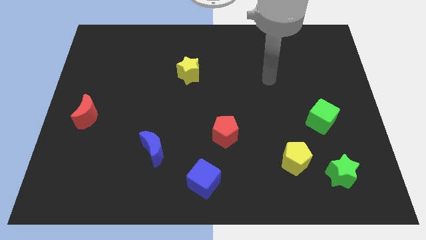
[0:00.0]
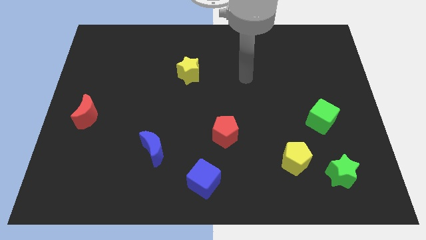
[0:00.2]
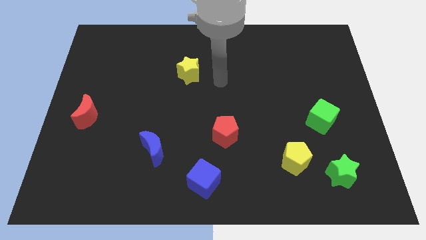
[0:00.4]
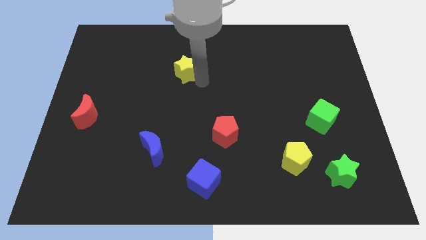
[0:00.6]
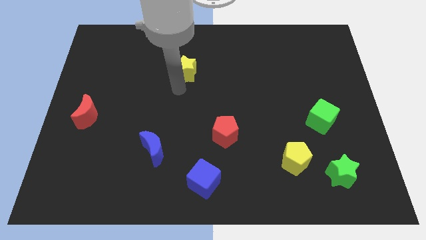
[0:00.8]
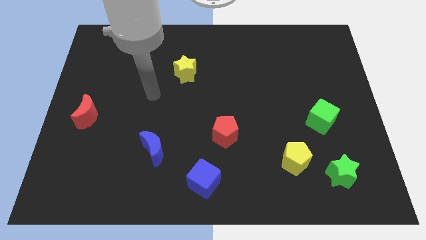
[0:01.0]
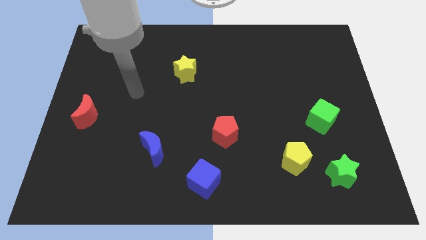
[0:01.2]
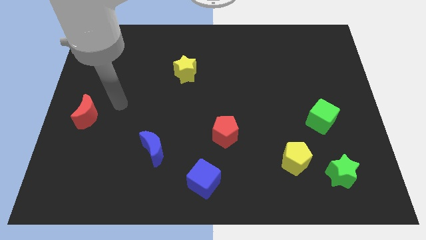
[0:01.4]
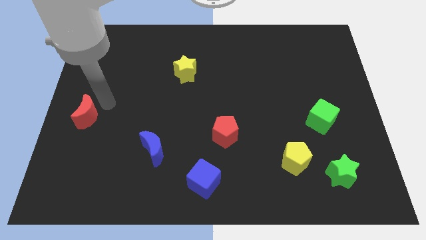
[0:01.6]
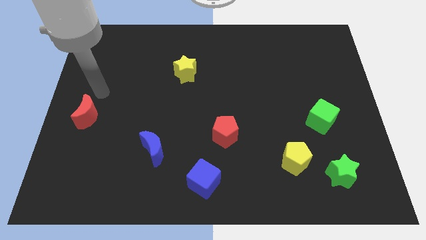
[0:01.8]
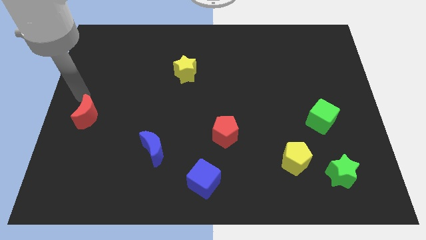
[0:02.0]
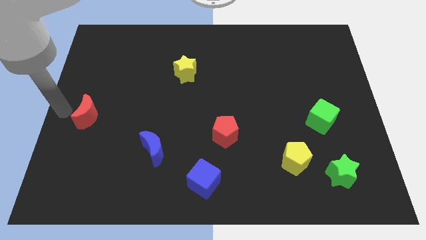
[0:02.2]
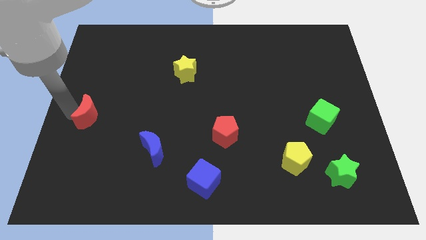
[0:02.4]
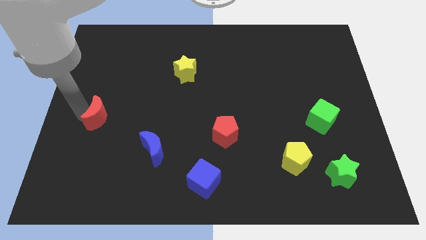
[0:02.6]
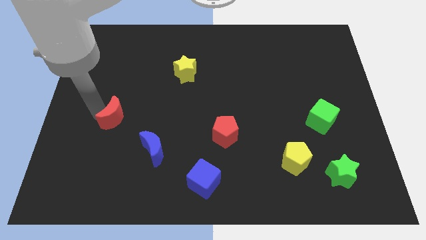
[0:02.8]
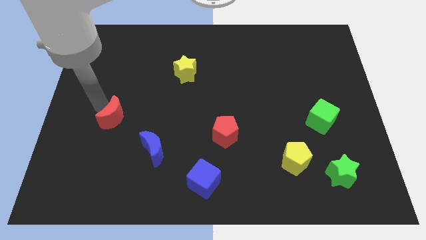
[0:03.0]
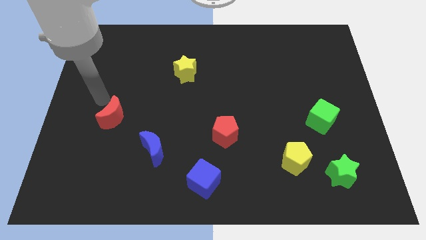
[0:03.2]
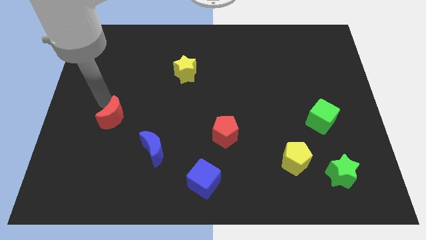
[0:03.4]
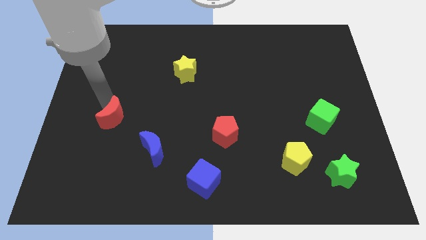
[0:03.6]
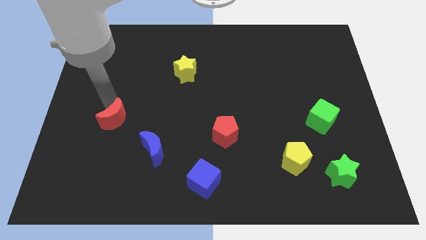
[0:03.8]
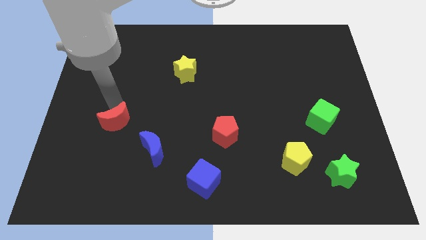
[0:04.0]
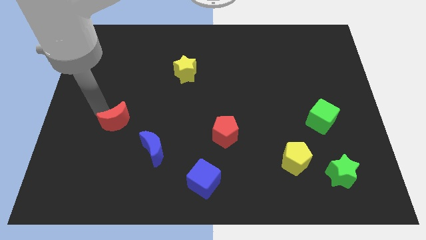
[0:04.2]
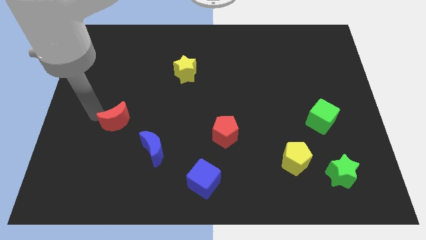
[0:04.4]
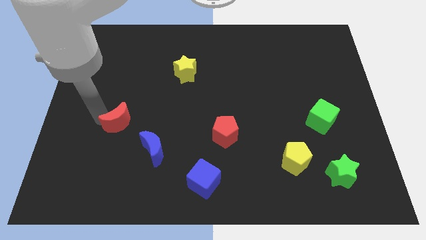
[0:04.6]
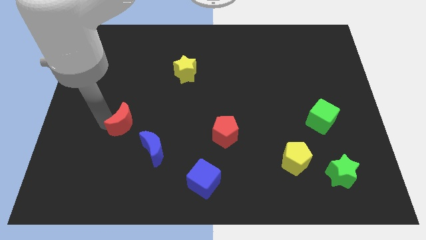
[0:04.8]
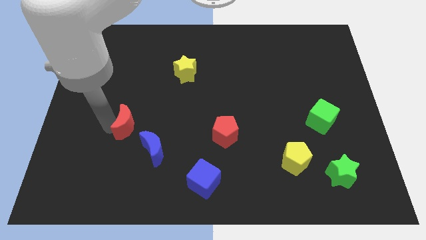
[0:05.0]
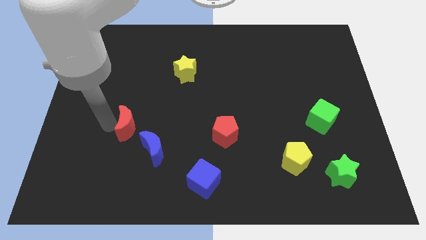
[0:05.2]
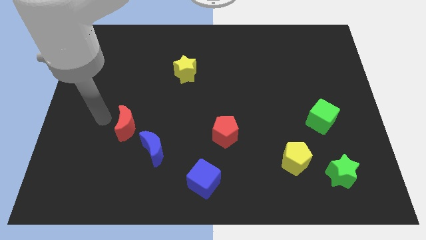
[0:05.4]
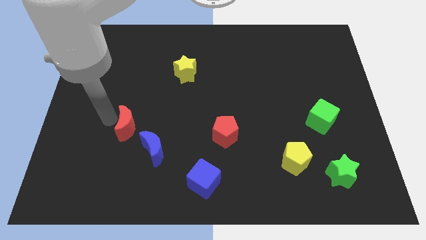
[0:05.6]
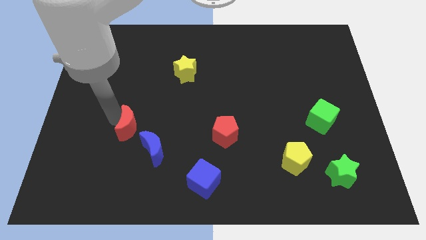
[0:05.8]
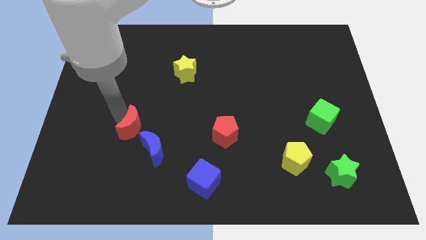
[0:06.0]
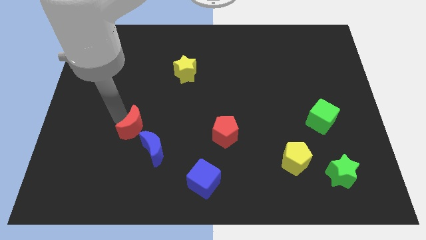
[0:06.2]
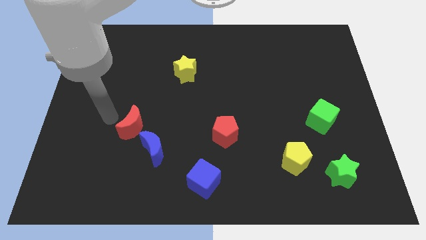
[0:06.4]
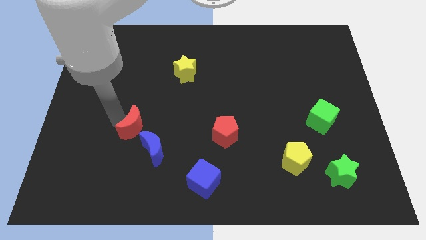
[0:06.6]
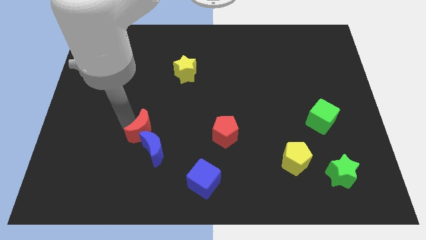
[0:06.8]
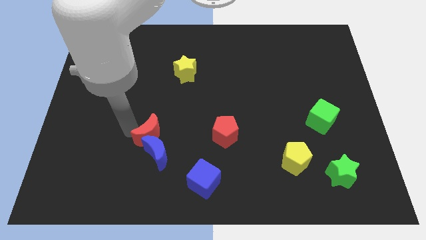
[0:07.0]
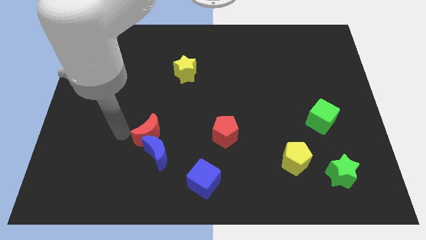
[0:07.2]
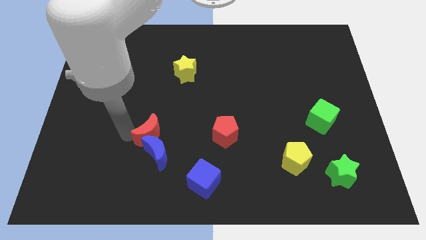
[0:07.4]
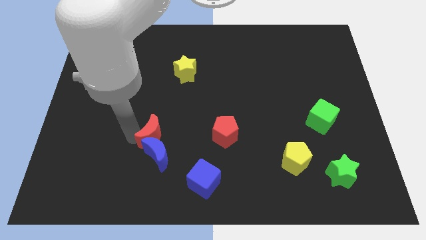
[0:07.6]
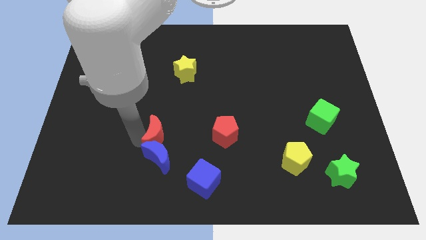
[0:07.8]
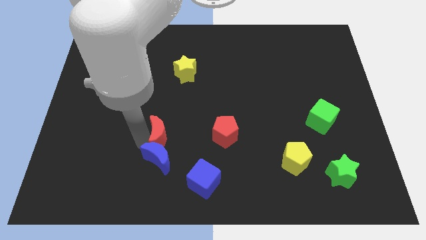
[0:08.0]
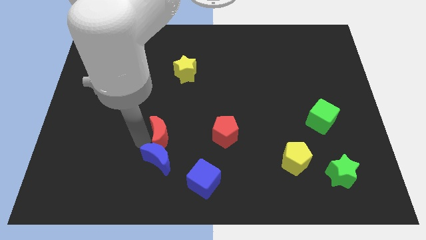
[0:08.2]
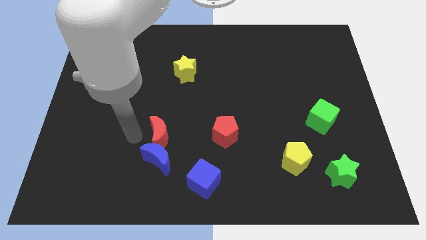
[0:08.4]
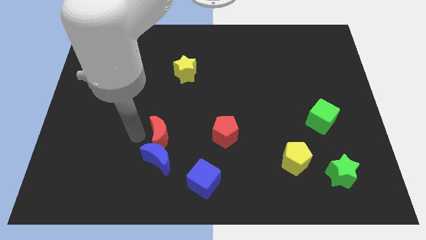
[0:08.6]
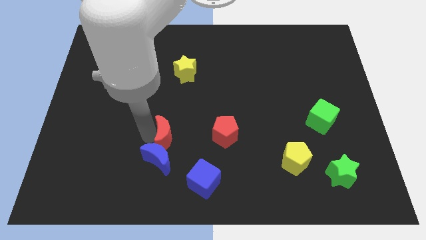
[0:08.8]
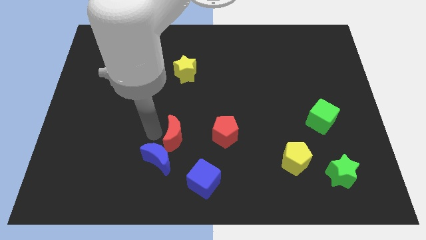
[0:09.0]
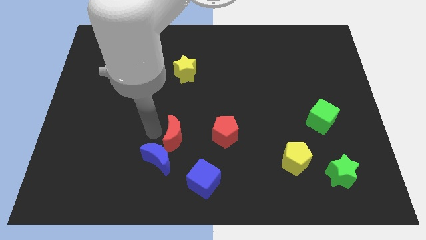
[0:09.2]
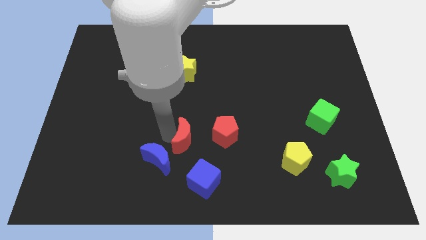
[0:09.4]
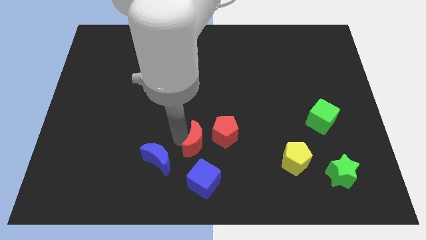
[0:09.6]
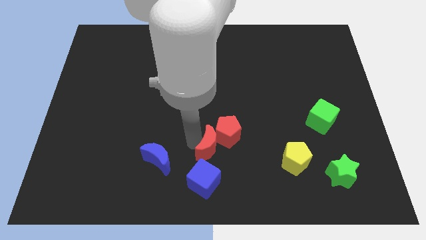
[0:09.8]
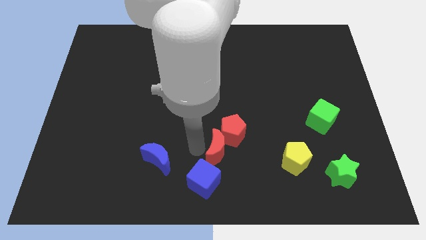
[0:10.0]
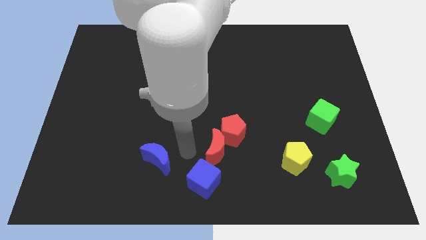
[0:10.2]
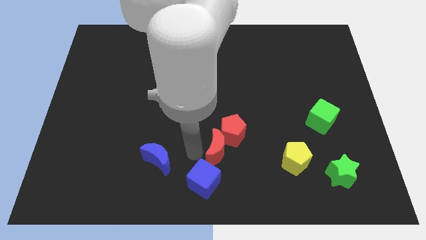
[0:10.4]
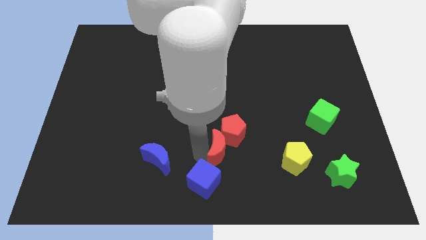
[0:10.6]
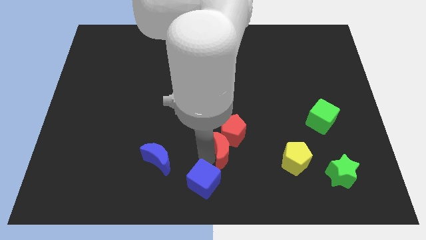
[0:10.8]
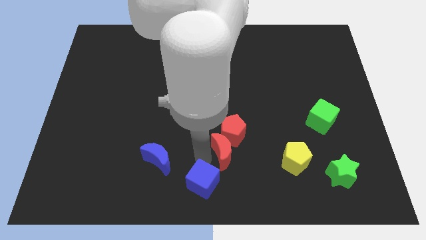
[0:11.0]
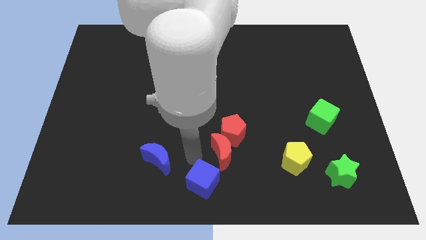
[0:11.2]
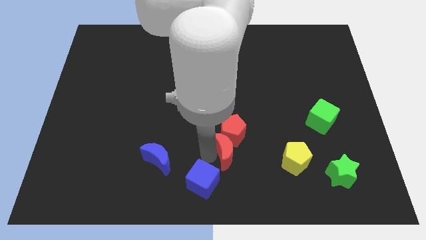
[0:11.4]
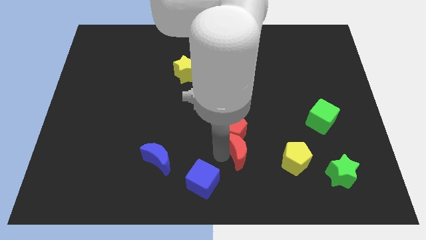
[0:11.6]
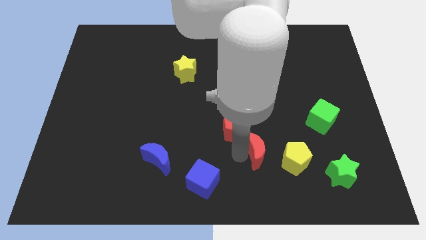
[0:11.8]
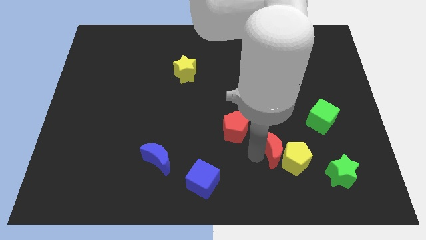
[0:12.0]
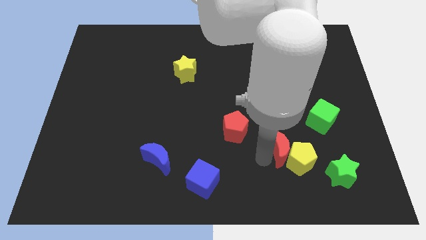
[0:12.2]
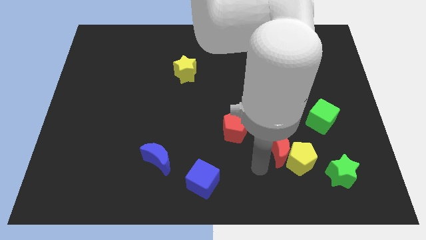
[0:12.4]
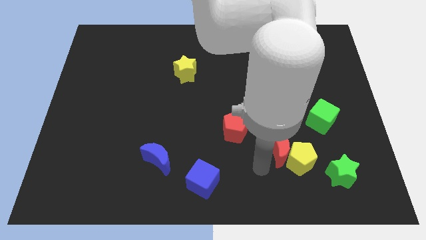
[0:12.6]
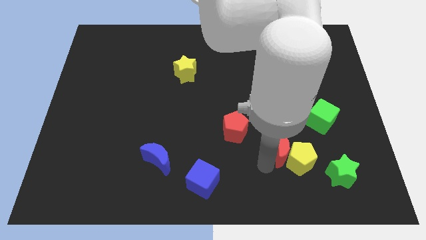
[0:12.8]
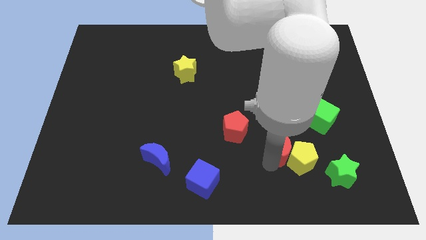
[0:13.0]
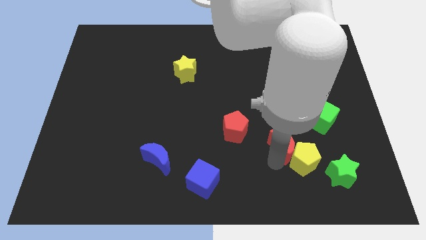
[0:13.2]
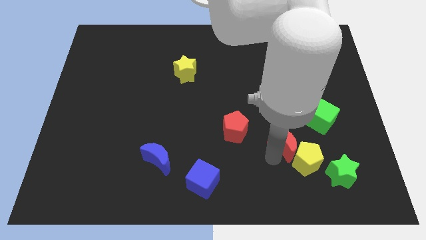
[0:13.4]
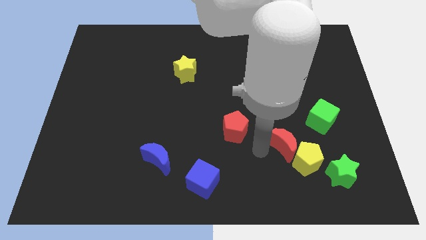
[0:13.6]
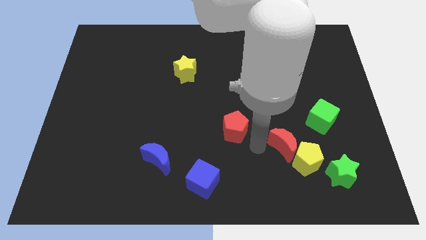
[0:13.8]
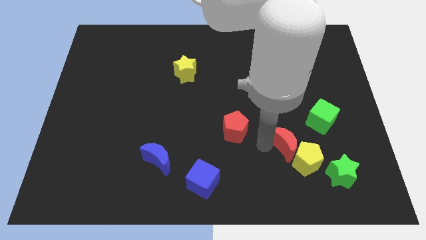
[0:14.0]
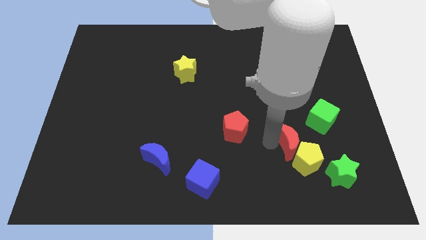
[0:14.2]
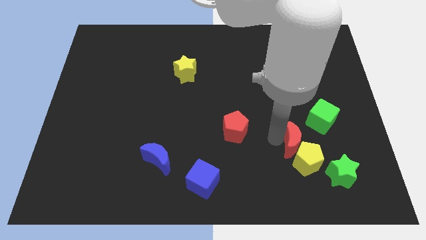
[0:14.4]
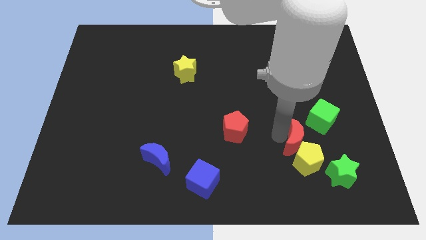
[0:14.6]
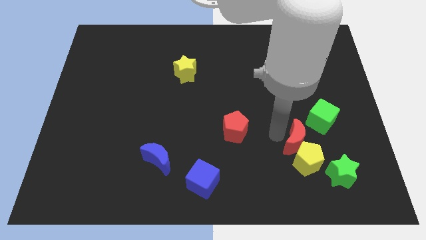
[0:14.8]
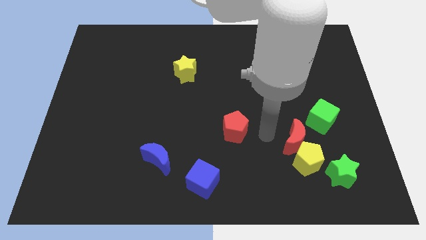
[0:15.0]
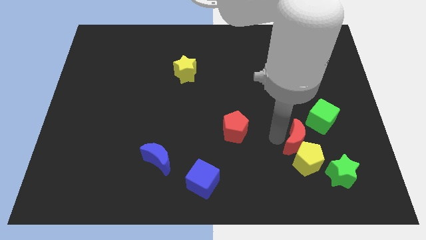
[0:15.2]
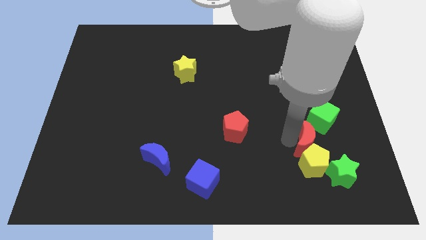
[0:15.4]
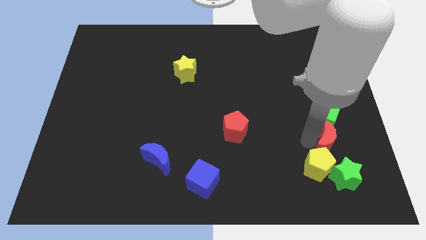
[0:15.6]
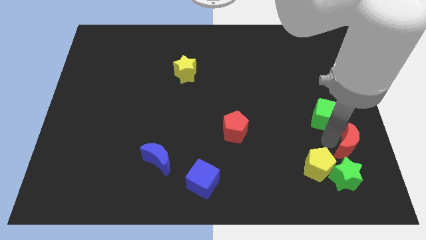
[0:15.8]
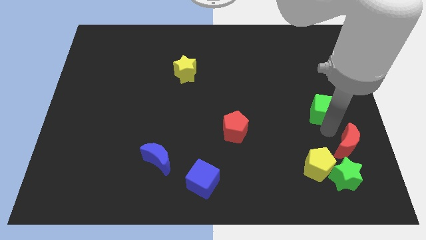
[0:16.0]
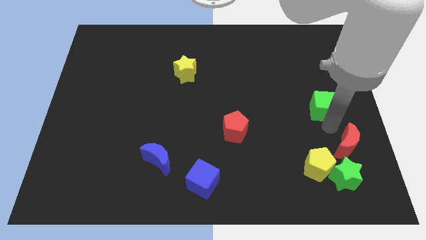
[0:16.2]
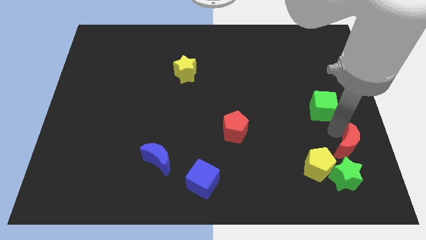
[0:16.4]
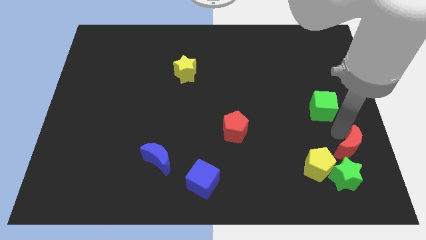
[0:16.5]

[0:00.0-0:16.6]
push the red moon to the right of the yellow pentagon
